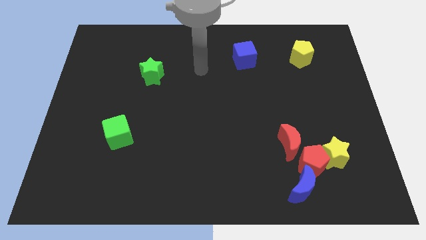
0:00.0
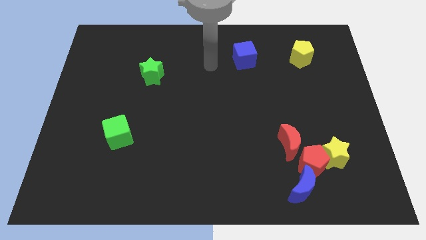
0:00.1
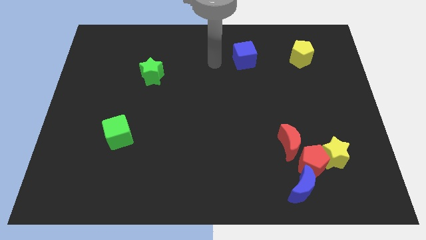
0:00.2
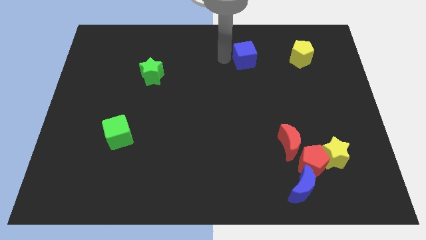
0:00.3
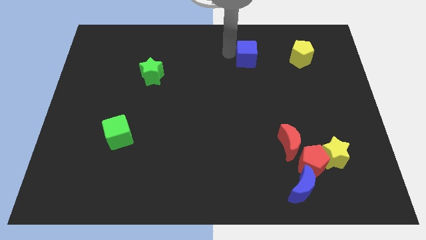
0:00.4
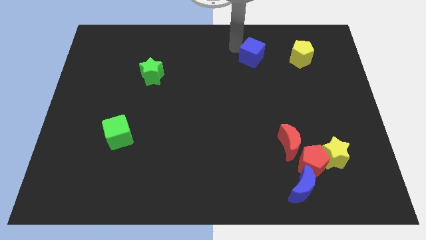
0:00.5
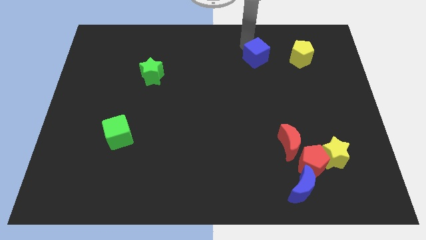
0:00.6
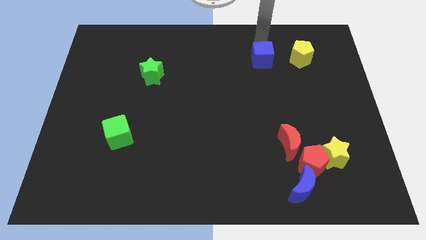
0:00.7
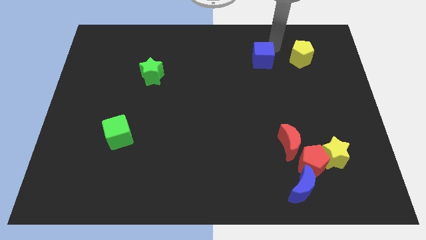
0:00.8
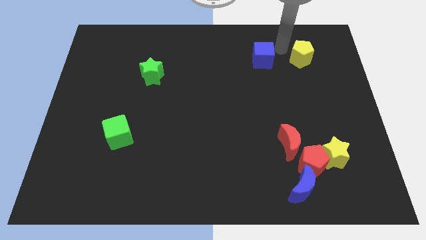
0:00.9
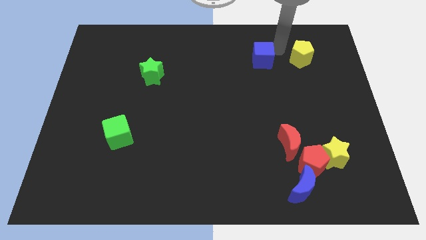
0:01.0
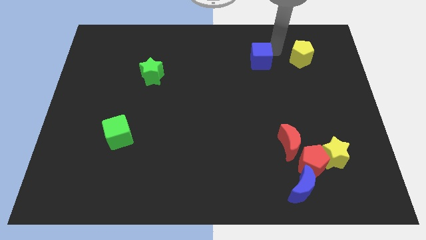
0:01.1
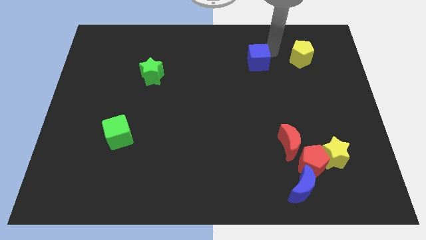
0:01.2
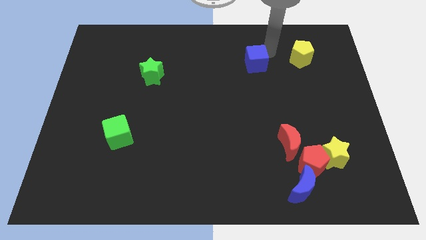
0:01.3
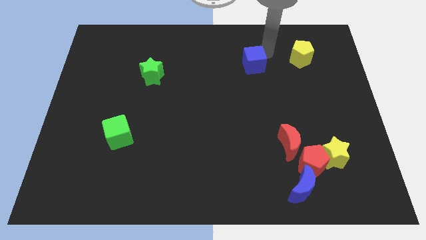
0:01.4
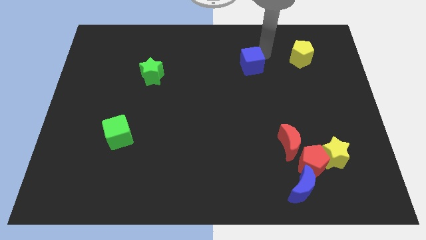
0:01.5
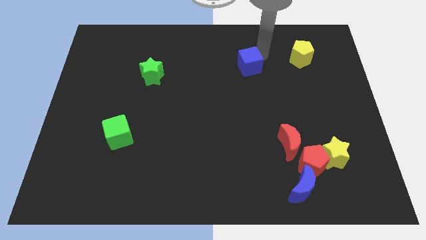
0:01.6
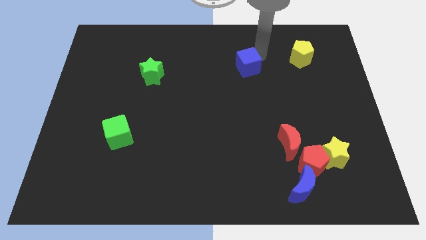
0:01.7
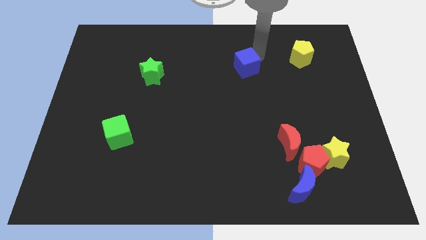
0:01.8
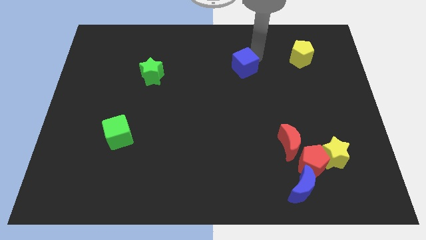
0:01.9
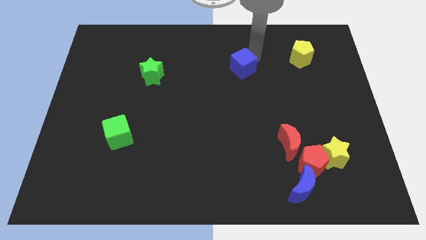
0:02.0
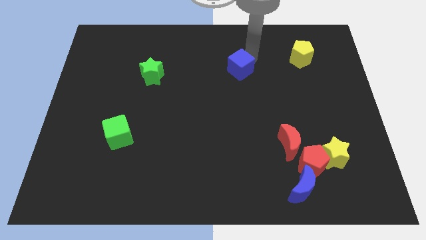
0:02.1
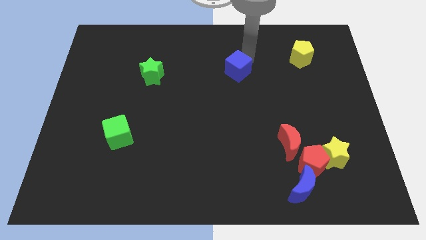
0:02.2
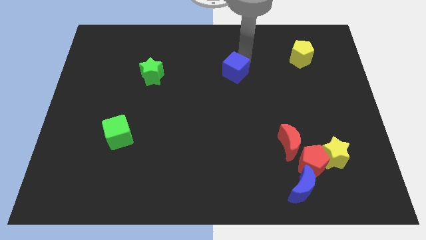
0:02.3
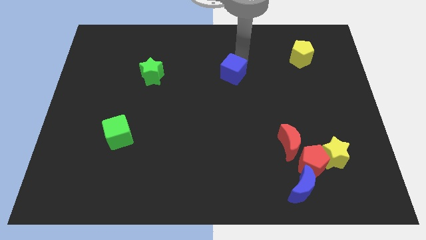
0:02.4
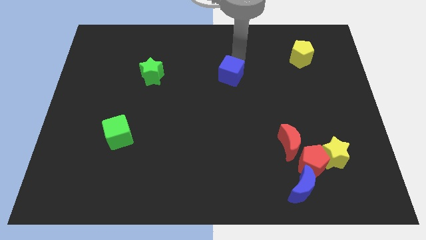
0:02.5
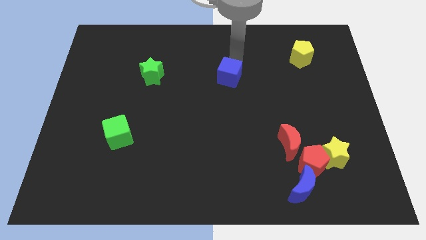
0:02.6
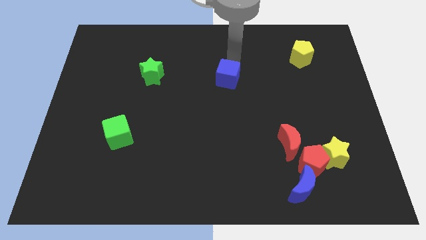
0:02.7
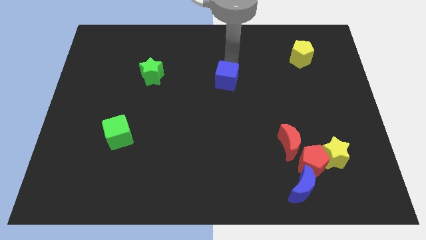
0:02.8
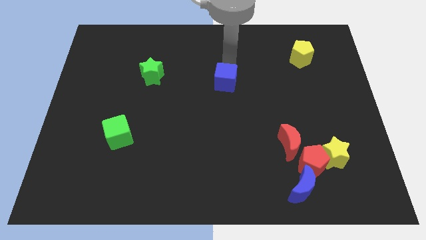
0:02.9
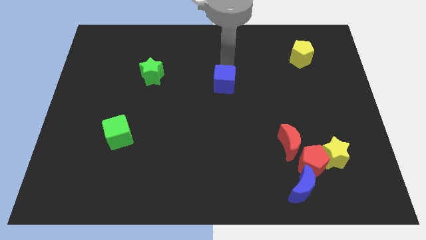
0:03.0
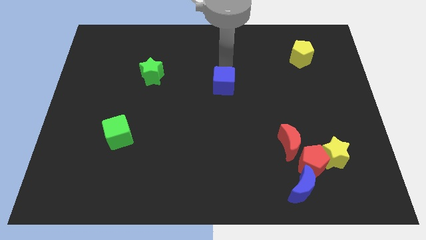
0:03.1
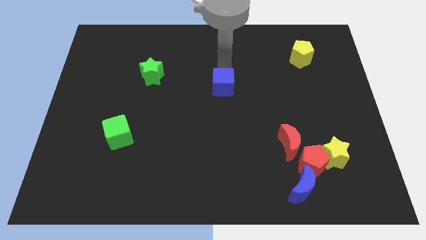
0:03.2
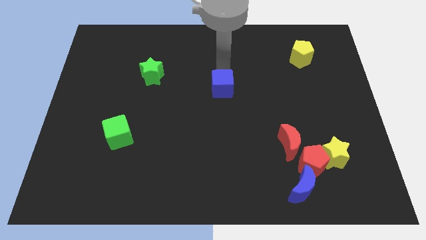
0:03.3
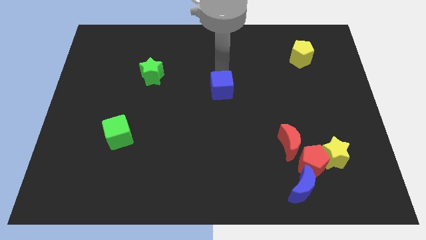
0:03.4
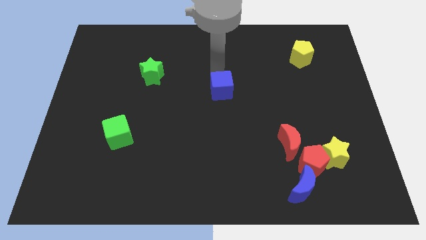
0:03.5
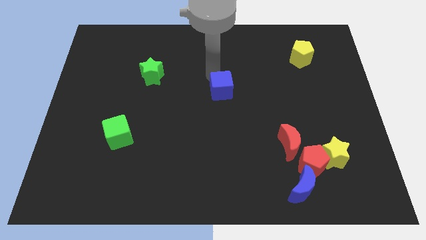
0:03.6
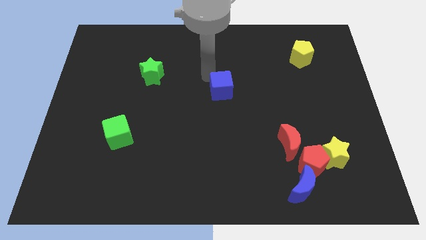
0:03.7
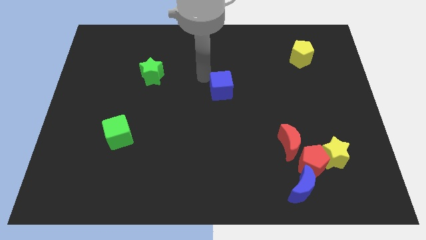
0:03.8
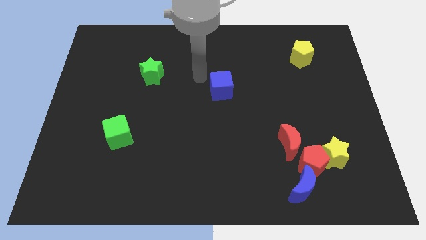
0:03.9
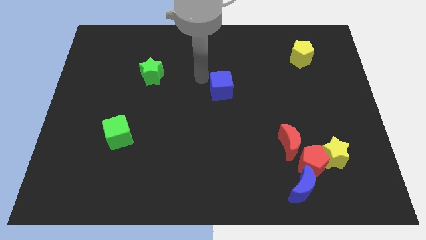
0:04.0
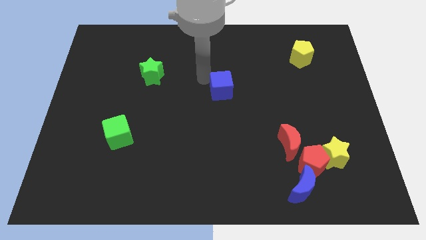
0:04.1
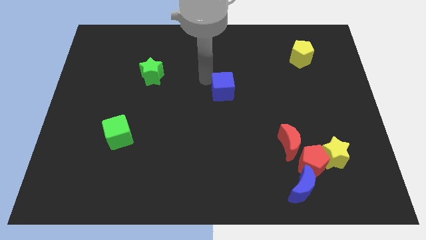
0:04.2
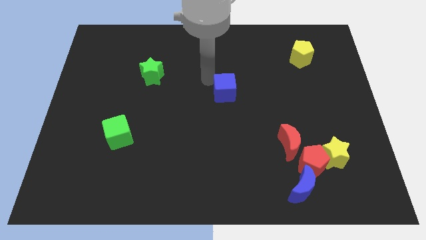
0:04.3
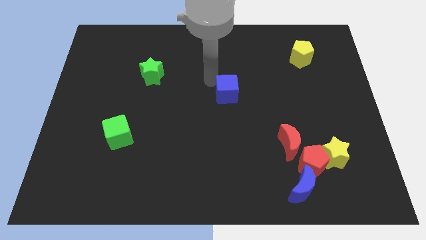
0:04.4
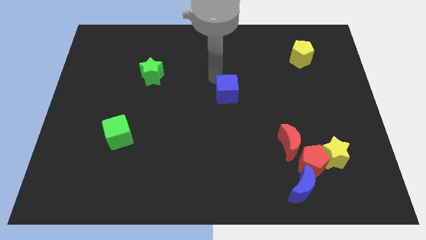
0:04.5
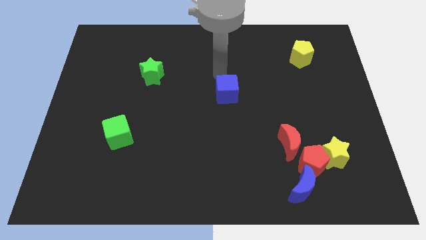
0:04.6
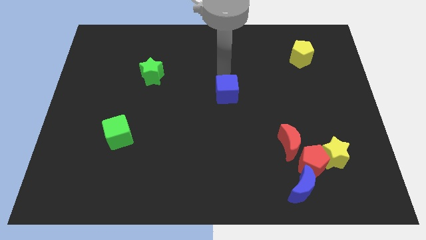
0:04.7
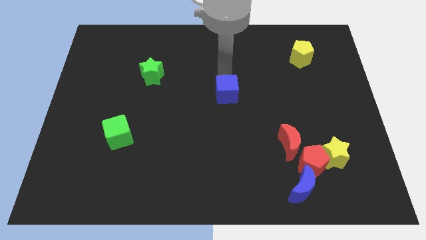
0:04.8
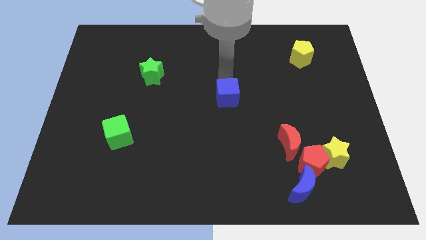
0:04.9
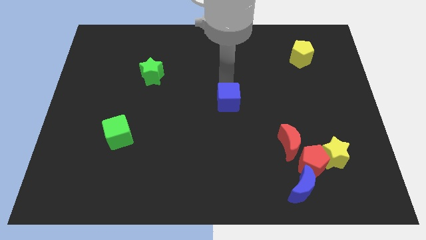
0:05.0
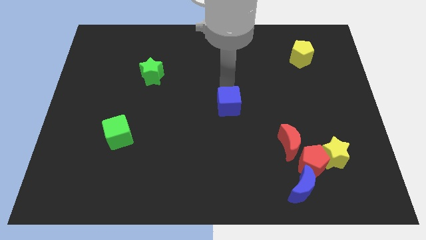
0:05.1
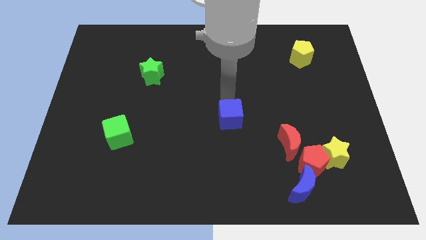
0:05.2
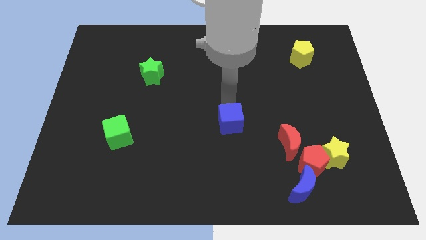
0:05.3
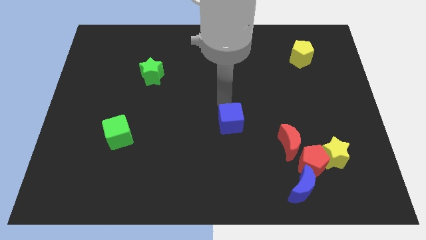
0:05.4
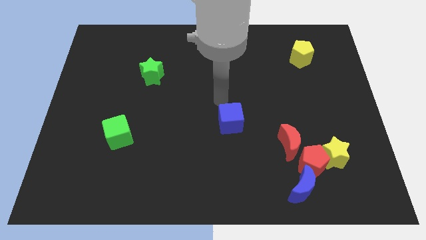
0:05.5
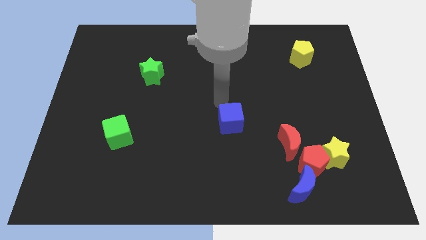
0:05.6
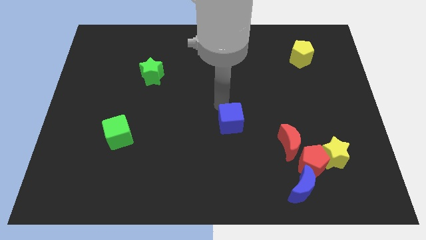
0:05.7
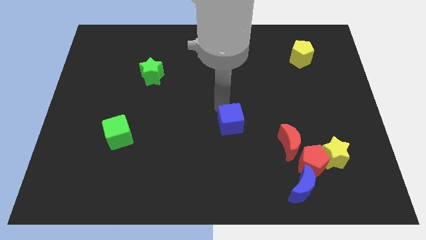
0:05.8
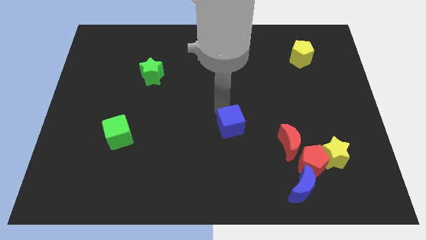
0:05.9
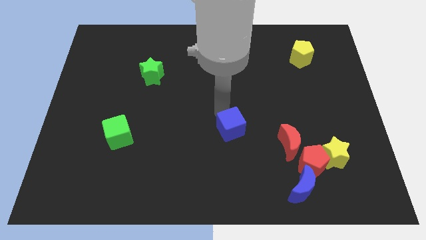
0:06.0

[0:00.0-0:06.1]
put the blue cube left of the red moon
